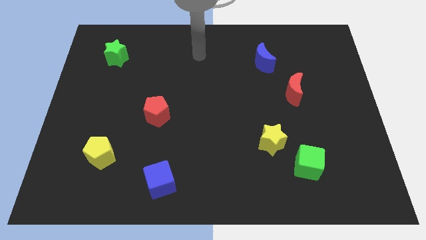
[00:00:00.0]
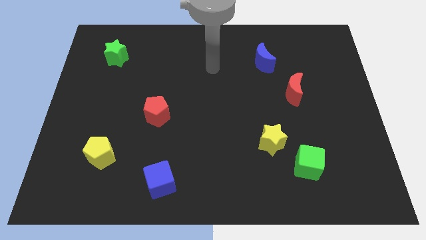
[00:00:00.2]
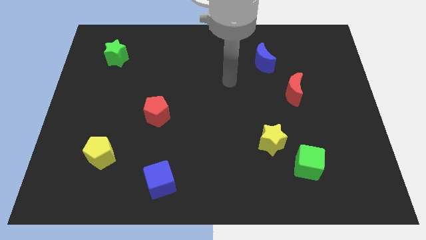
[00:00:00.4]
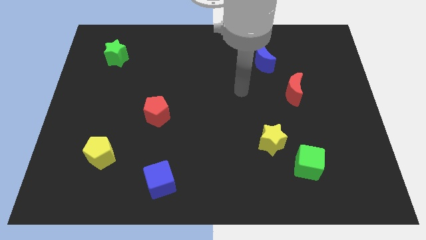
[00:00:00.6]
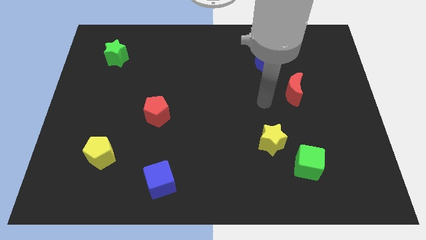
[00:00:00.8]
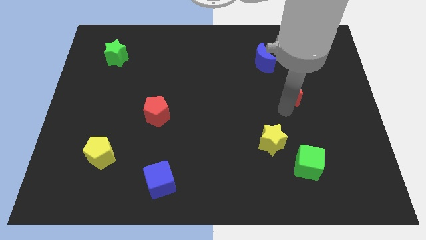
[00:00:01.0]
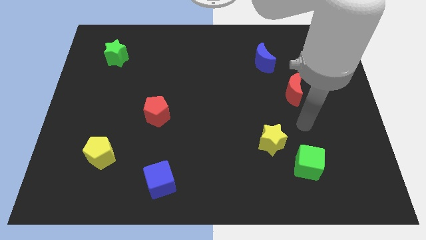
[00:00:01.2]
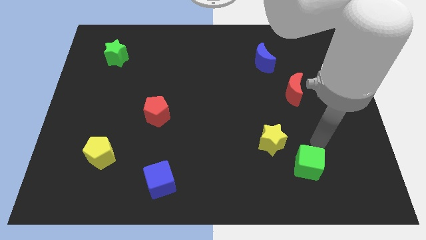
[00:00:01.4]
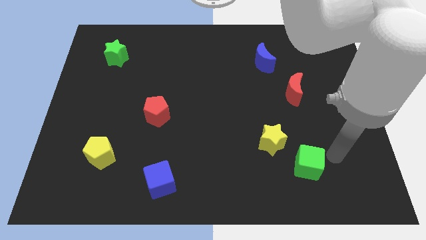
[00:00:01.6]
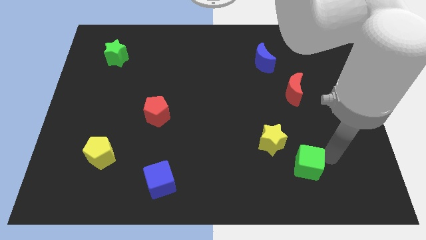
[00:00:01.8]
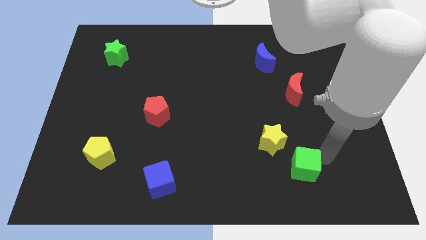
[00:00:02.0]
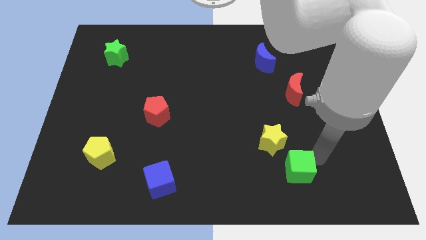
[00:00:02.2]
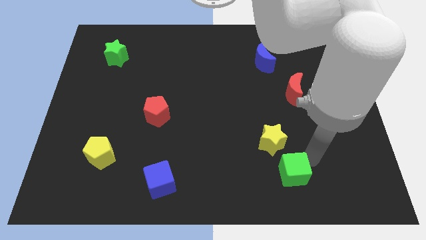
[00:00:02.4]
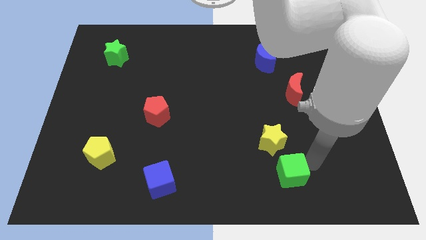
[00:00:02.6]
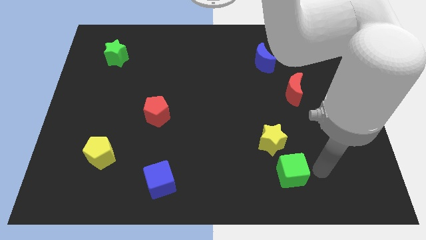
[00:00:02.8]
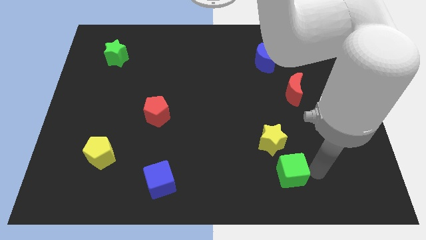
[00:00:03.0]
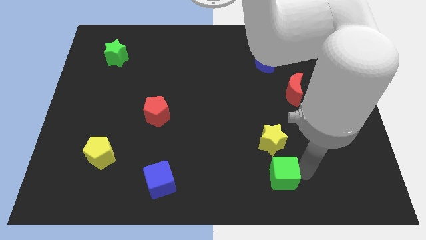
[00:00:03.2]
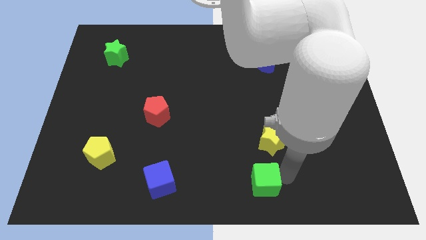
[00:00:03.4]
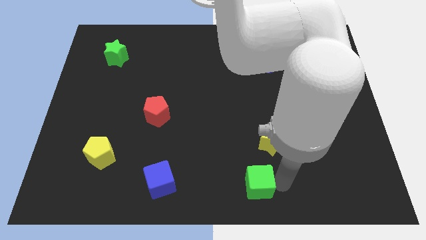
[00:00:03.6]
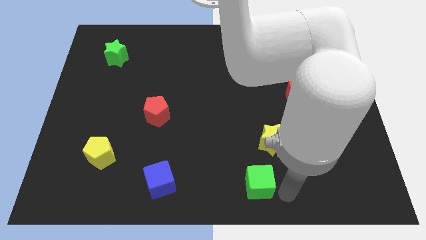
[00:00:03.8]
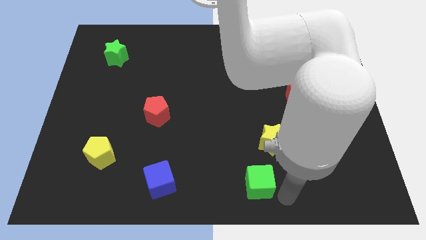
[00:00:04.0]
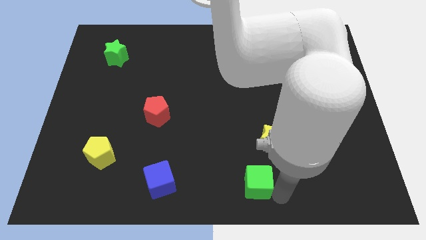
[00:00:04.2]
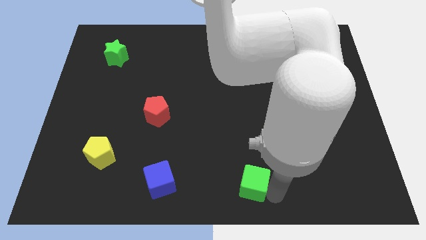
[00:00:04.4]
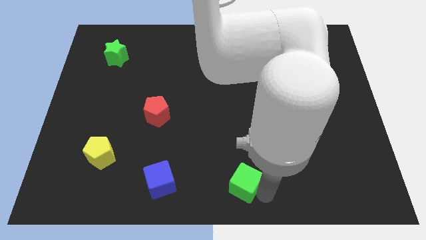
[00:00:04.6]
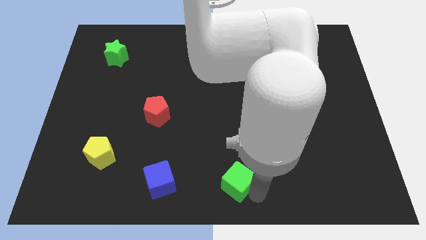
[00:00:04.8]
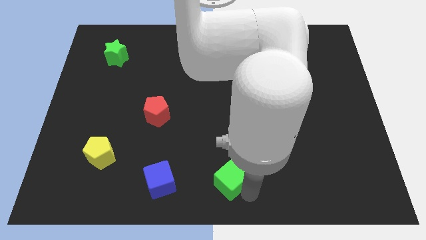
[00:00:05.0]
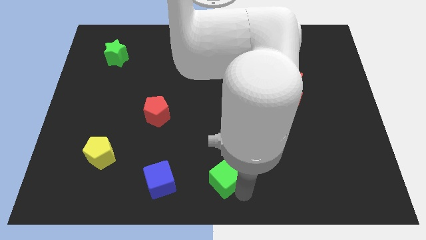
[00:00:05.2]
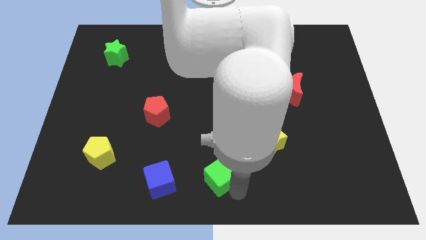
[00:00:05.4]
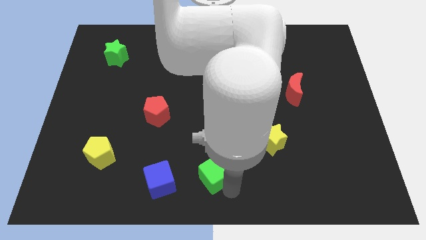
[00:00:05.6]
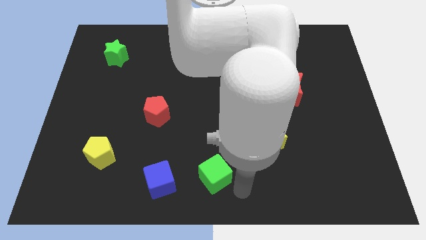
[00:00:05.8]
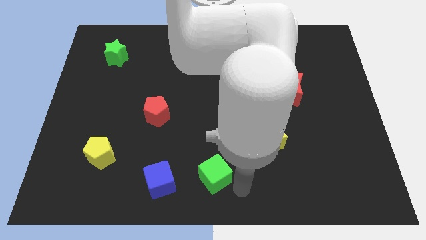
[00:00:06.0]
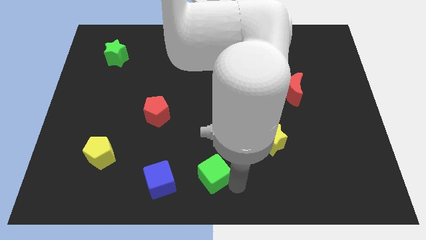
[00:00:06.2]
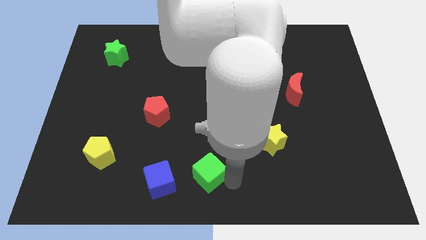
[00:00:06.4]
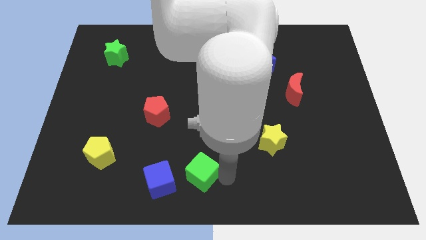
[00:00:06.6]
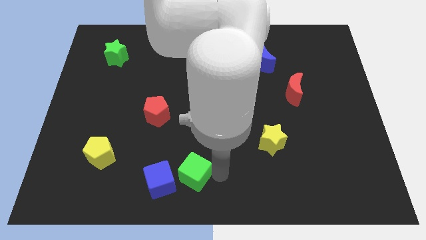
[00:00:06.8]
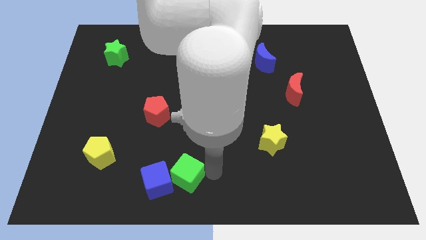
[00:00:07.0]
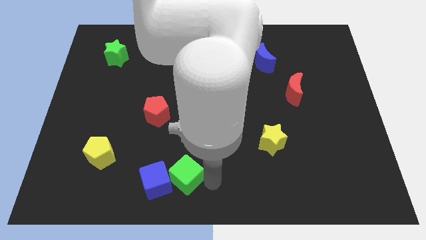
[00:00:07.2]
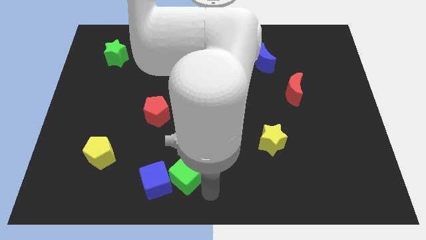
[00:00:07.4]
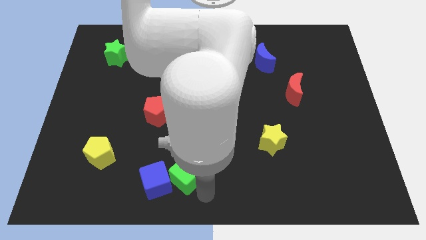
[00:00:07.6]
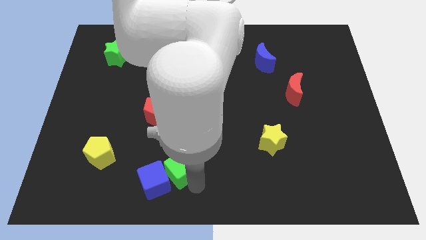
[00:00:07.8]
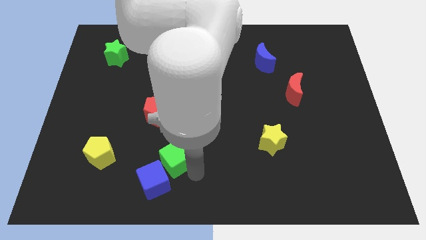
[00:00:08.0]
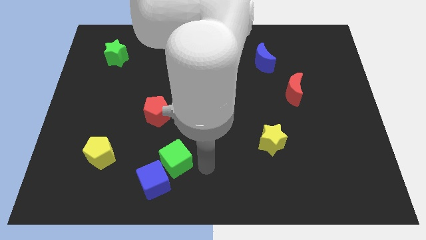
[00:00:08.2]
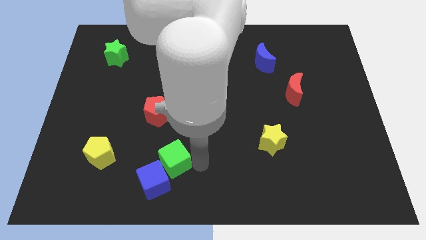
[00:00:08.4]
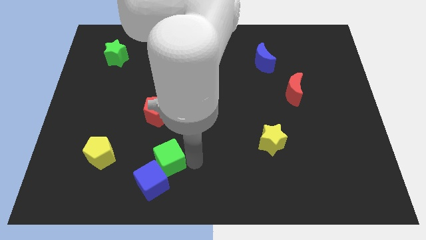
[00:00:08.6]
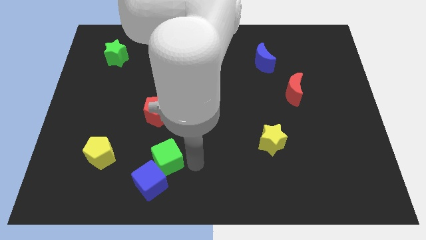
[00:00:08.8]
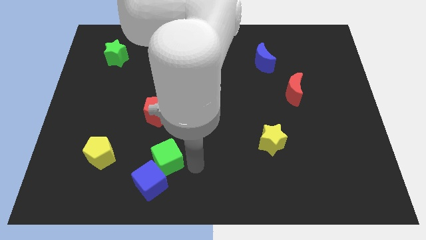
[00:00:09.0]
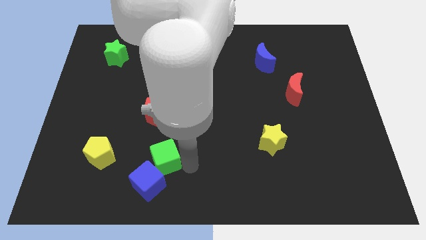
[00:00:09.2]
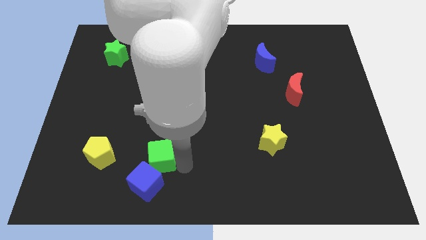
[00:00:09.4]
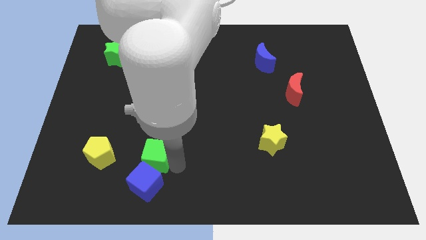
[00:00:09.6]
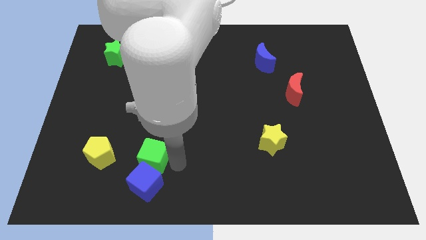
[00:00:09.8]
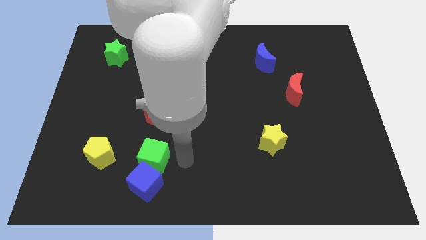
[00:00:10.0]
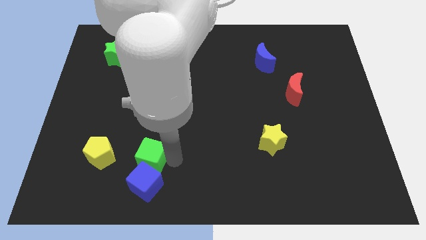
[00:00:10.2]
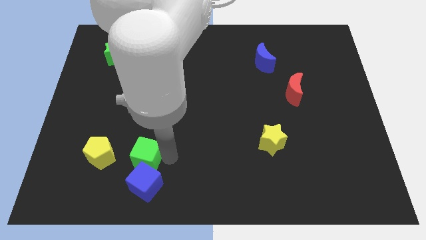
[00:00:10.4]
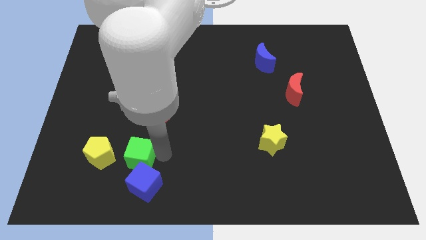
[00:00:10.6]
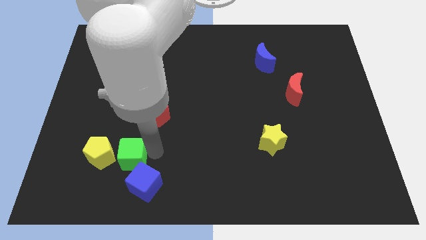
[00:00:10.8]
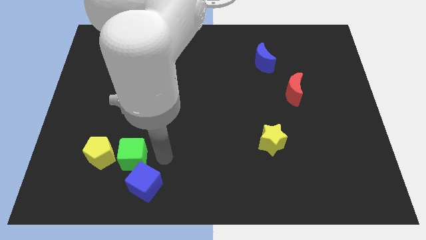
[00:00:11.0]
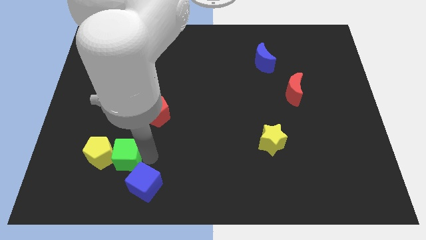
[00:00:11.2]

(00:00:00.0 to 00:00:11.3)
put the green cube next to the yellow pentagon
